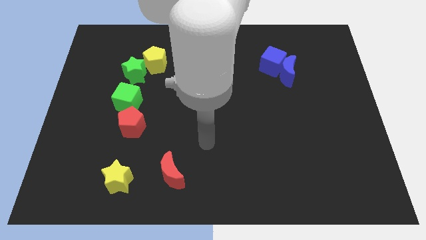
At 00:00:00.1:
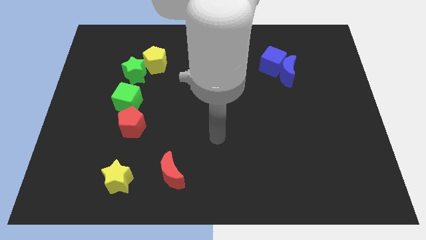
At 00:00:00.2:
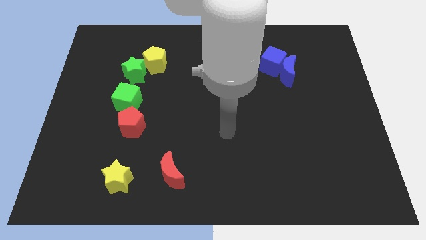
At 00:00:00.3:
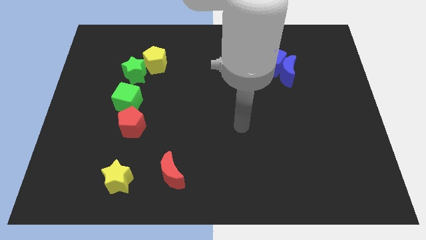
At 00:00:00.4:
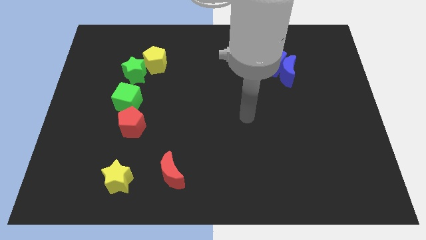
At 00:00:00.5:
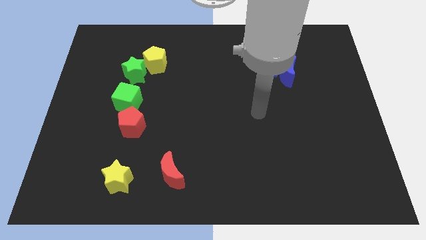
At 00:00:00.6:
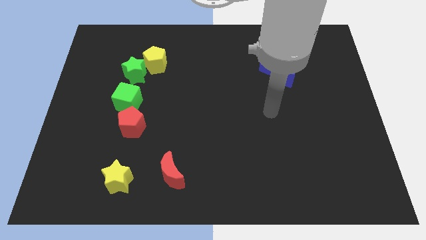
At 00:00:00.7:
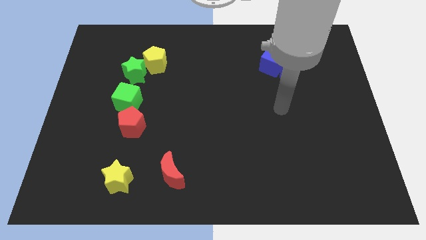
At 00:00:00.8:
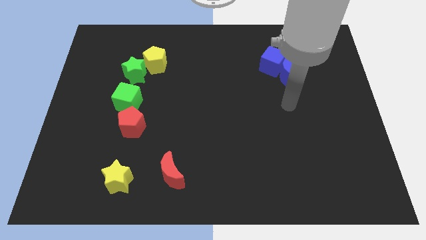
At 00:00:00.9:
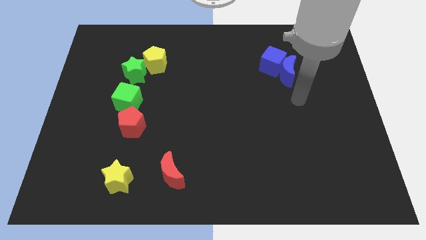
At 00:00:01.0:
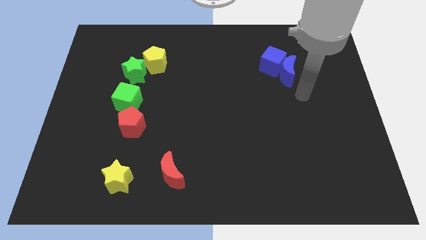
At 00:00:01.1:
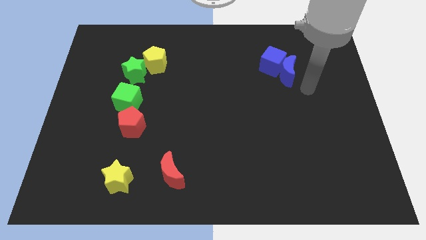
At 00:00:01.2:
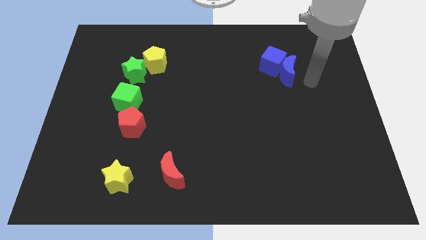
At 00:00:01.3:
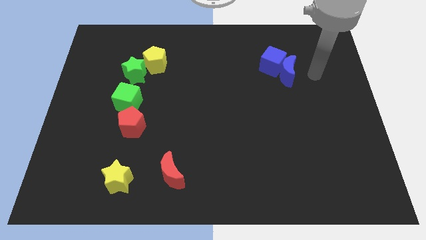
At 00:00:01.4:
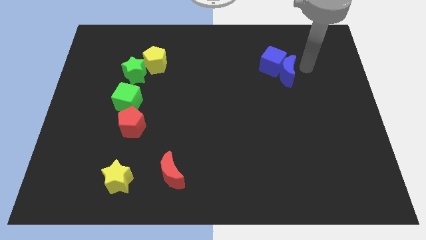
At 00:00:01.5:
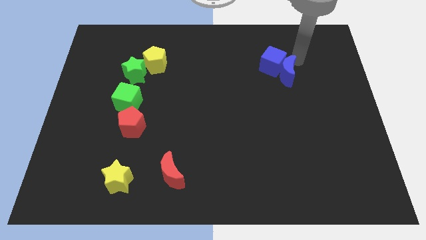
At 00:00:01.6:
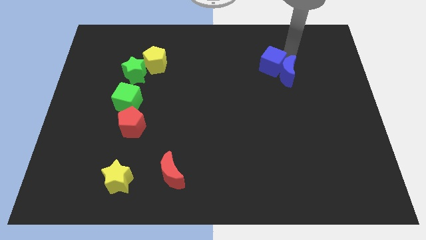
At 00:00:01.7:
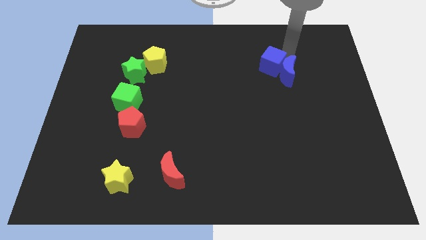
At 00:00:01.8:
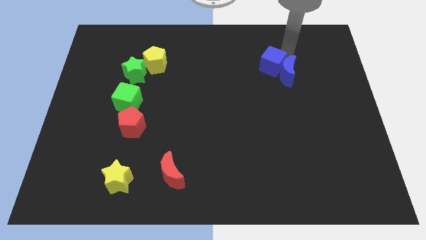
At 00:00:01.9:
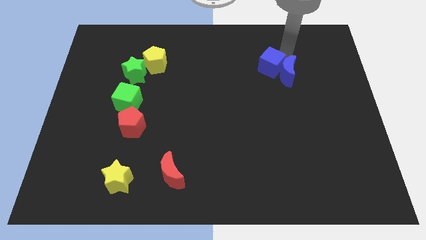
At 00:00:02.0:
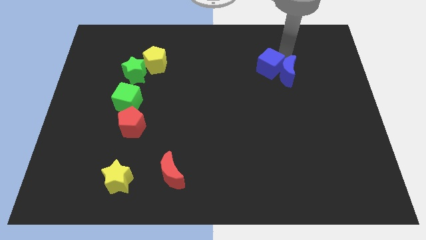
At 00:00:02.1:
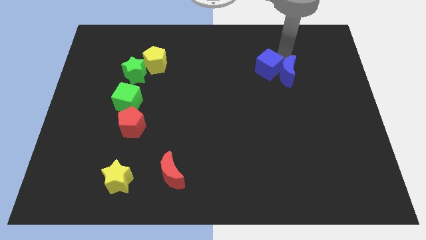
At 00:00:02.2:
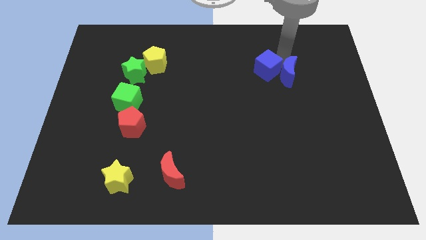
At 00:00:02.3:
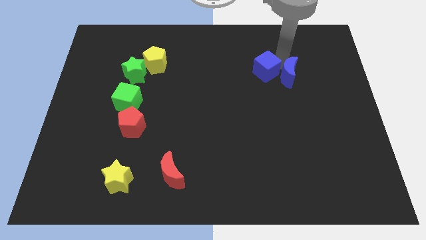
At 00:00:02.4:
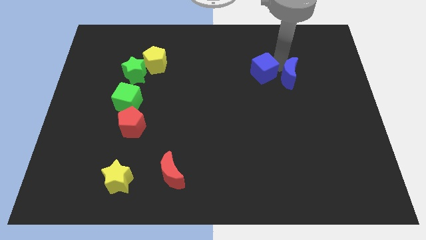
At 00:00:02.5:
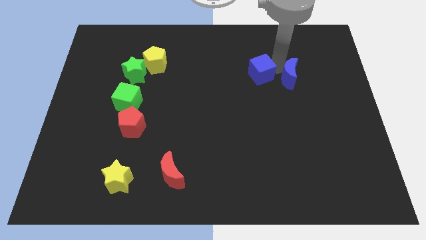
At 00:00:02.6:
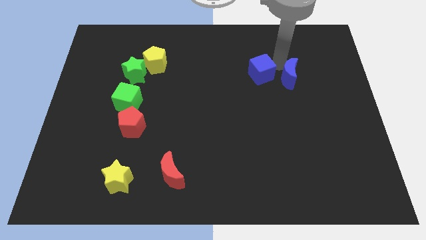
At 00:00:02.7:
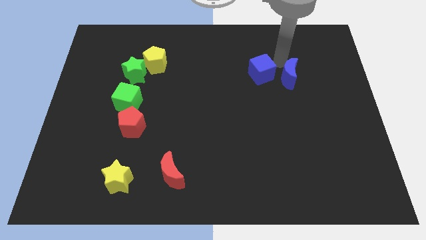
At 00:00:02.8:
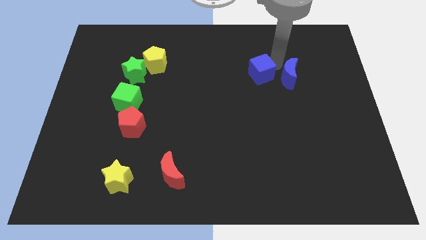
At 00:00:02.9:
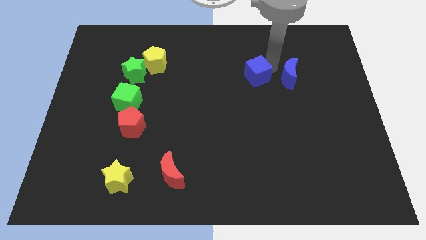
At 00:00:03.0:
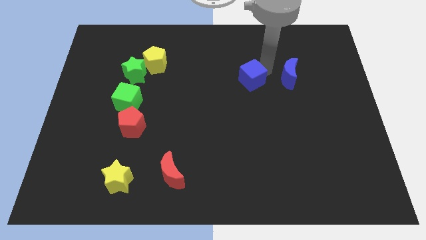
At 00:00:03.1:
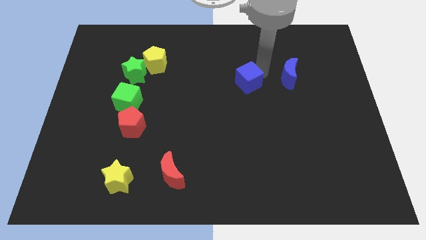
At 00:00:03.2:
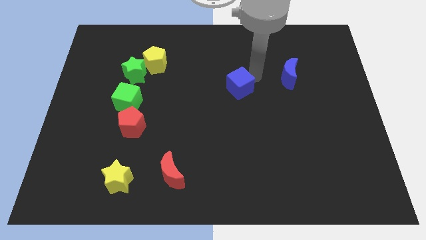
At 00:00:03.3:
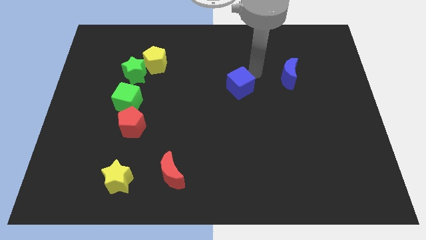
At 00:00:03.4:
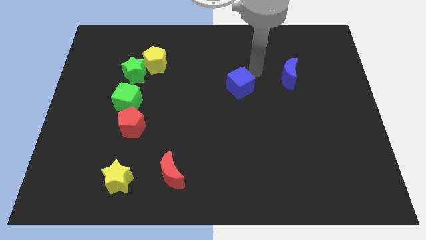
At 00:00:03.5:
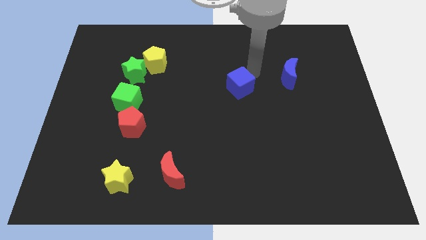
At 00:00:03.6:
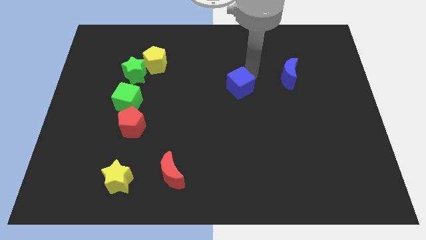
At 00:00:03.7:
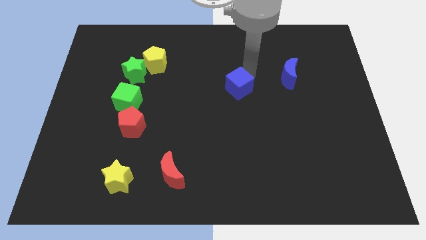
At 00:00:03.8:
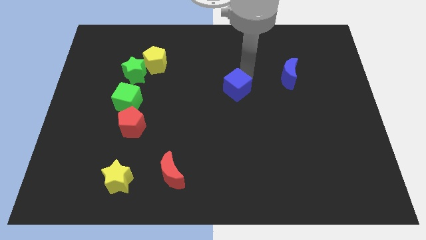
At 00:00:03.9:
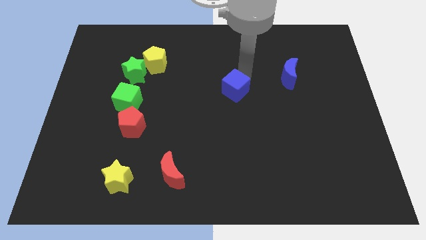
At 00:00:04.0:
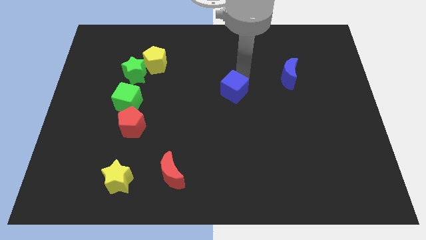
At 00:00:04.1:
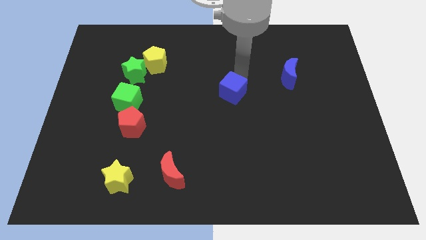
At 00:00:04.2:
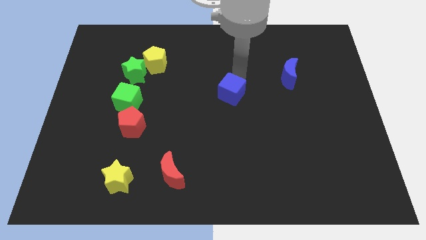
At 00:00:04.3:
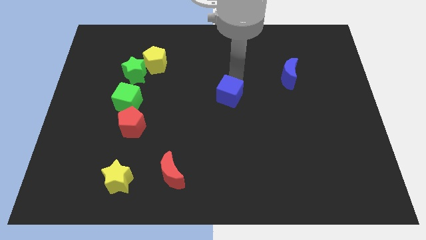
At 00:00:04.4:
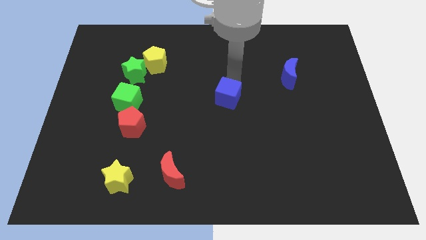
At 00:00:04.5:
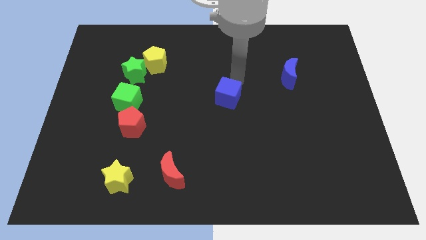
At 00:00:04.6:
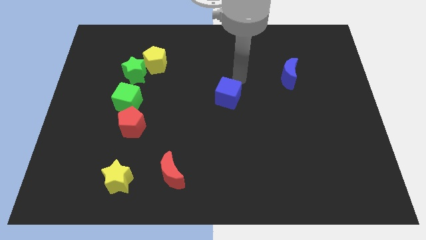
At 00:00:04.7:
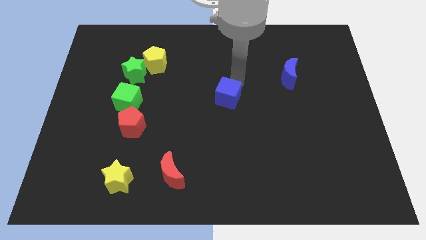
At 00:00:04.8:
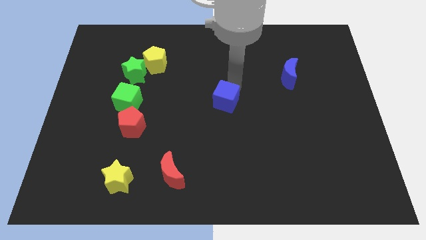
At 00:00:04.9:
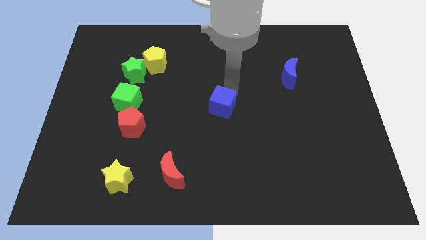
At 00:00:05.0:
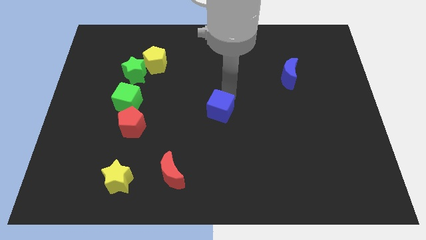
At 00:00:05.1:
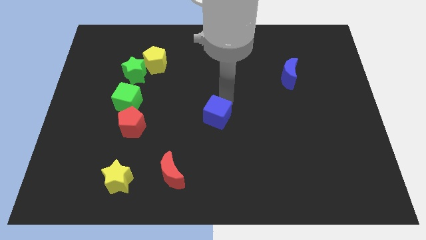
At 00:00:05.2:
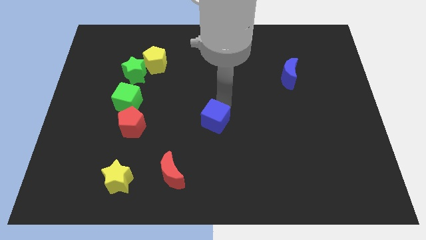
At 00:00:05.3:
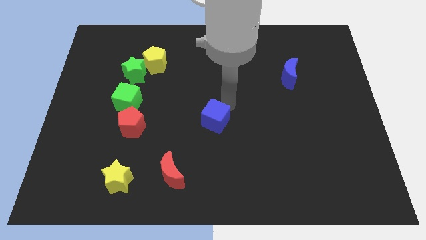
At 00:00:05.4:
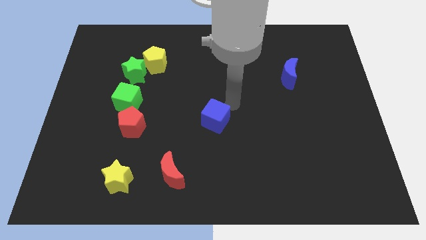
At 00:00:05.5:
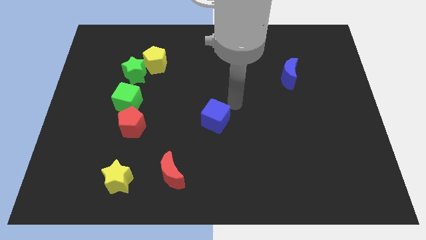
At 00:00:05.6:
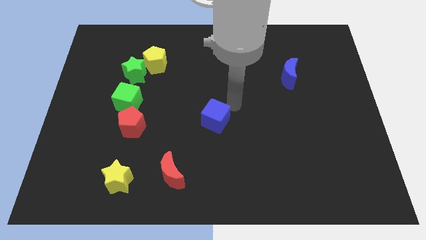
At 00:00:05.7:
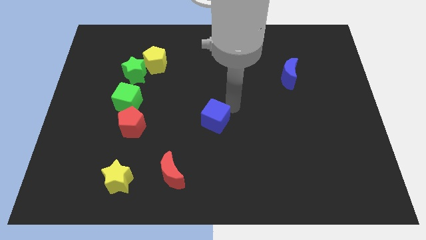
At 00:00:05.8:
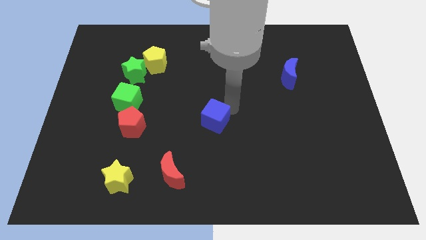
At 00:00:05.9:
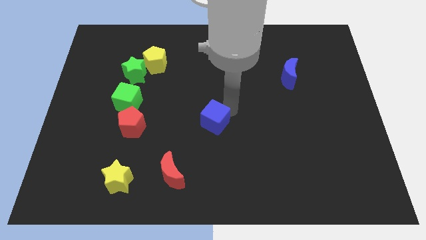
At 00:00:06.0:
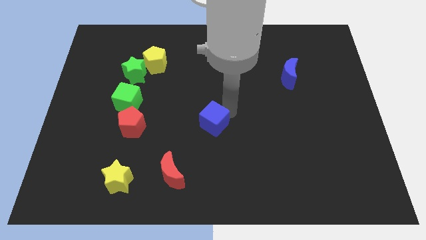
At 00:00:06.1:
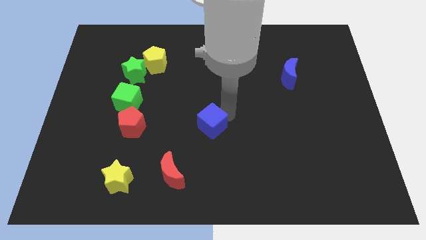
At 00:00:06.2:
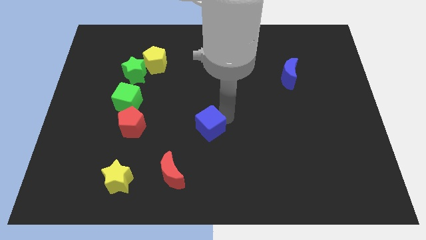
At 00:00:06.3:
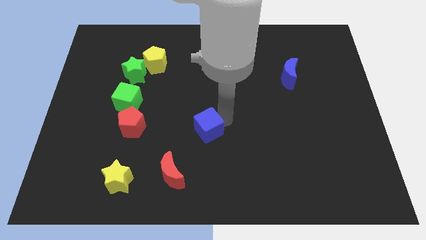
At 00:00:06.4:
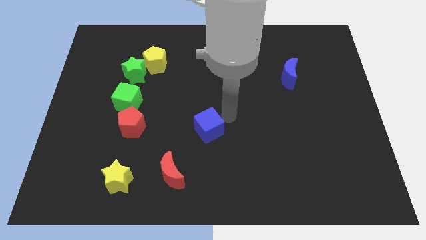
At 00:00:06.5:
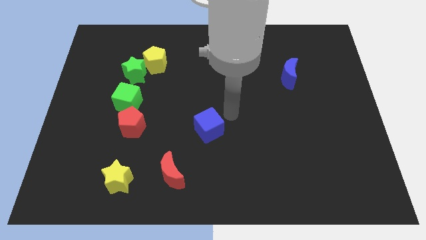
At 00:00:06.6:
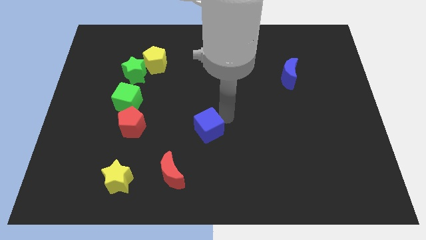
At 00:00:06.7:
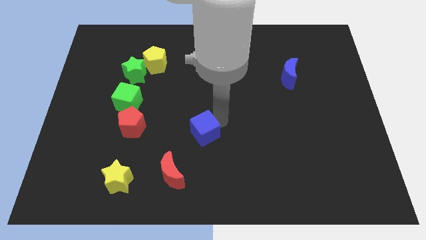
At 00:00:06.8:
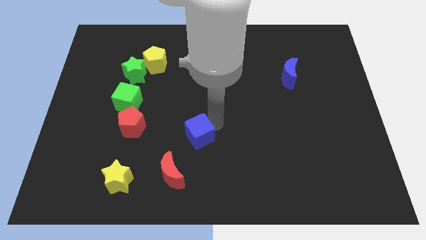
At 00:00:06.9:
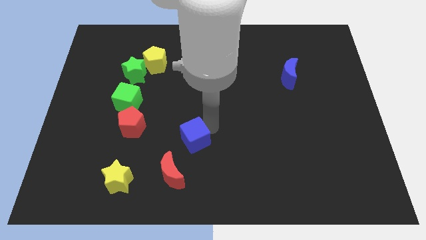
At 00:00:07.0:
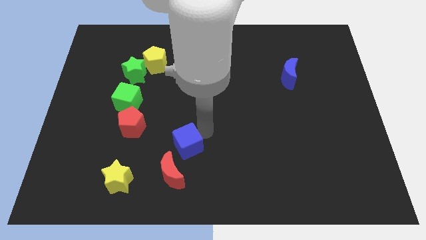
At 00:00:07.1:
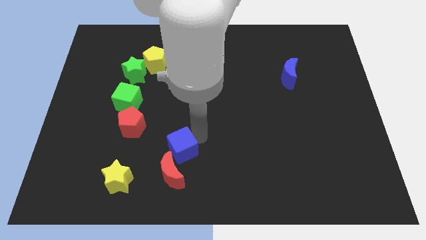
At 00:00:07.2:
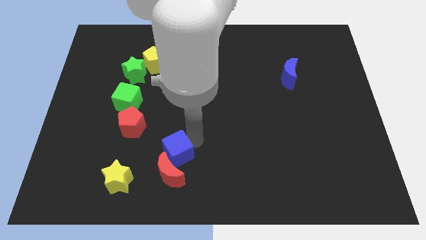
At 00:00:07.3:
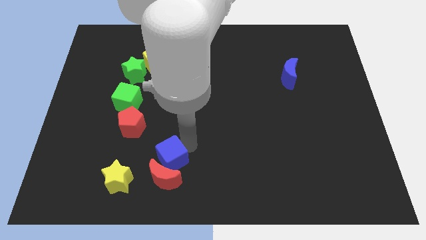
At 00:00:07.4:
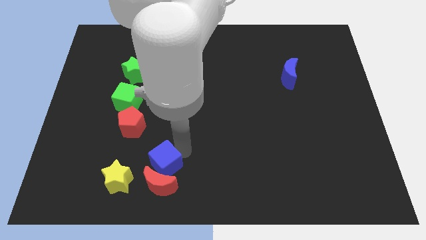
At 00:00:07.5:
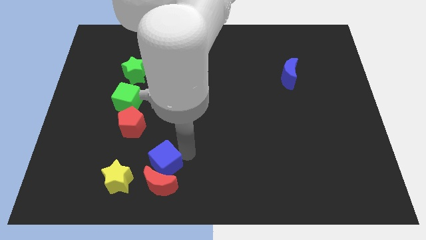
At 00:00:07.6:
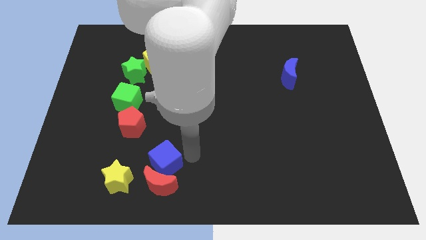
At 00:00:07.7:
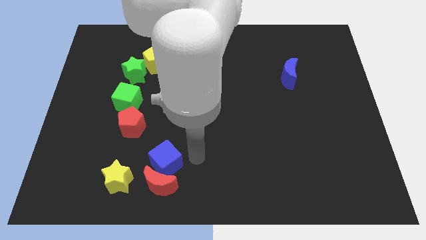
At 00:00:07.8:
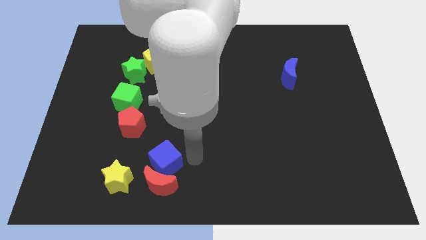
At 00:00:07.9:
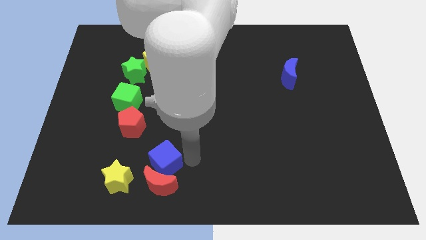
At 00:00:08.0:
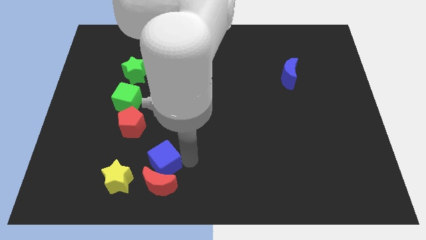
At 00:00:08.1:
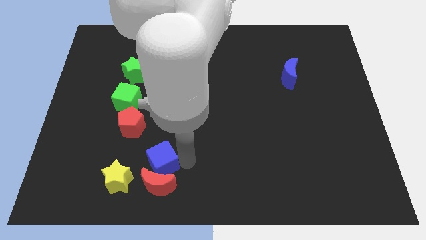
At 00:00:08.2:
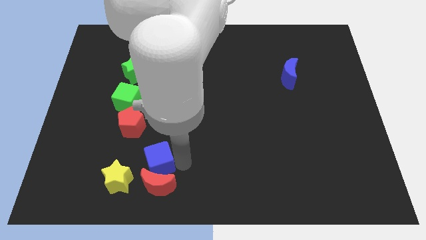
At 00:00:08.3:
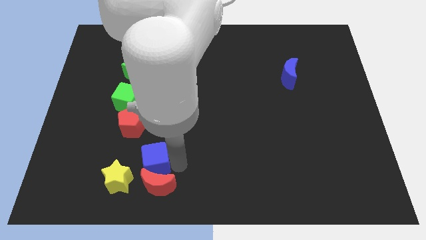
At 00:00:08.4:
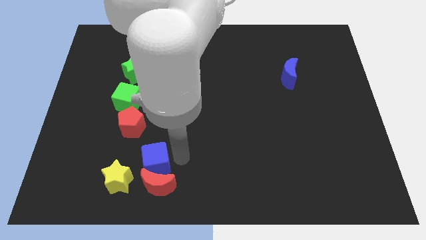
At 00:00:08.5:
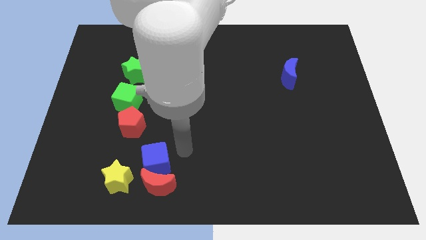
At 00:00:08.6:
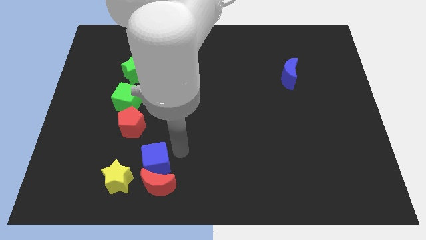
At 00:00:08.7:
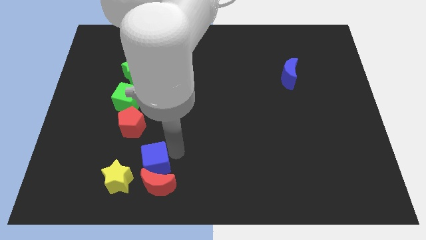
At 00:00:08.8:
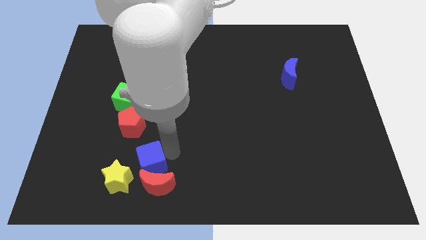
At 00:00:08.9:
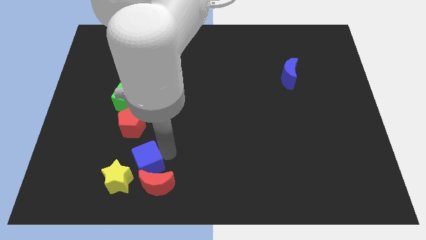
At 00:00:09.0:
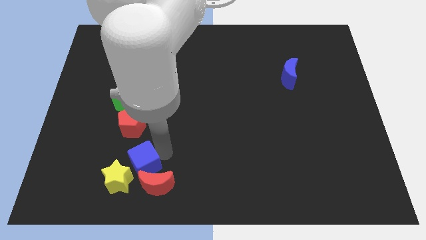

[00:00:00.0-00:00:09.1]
put the blue cube towards the yellow star
